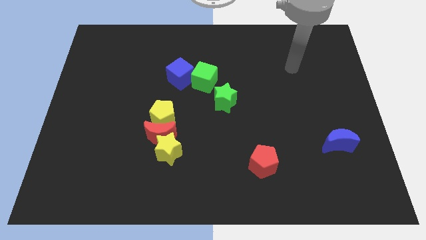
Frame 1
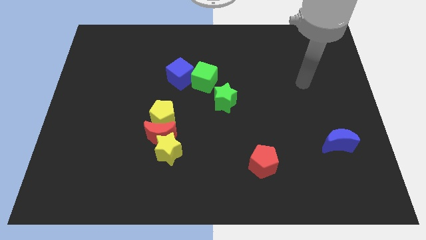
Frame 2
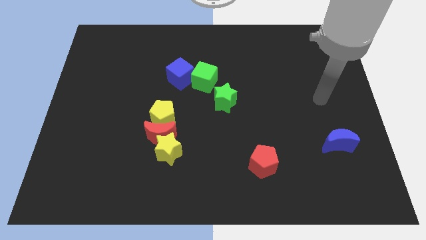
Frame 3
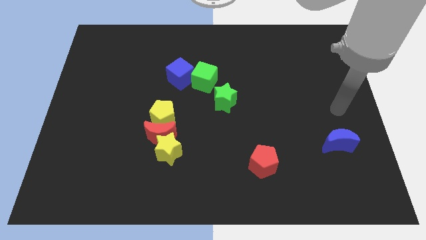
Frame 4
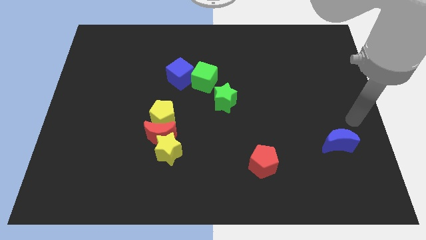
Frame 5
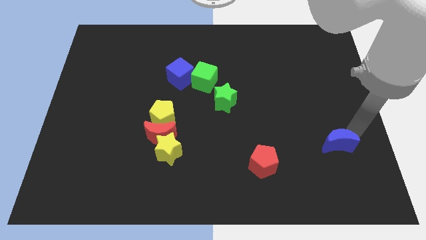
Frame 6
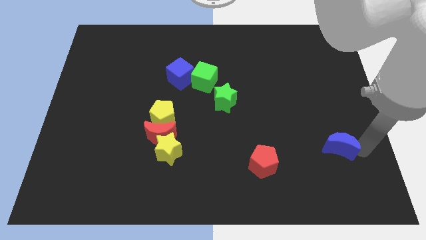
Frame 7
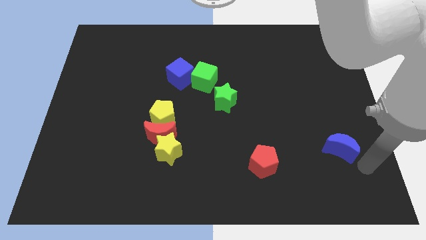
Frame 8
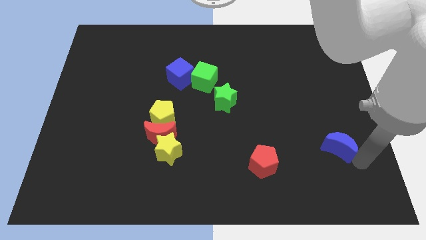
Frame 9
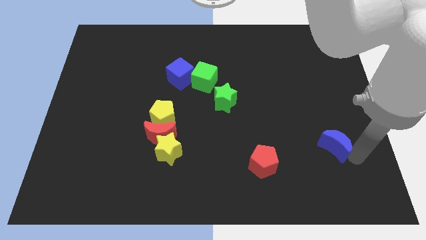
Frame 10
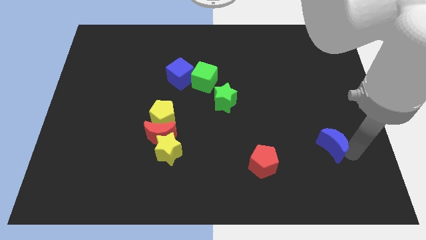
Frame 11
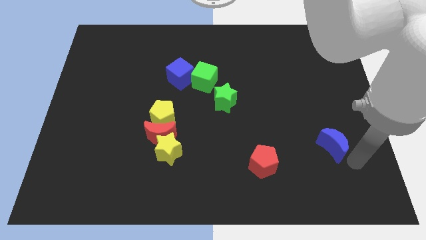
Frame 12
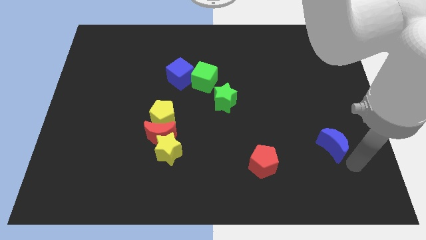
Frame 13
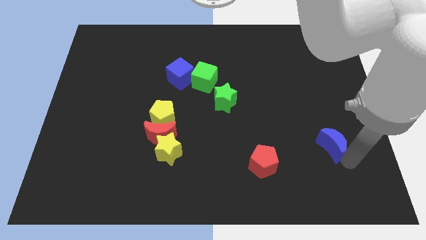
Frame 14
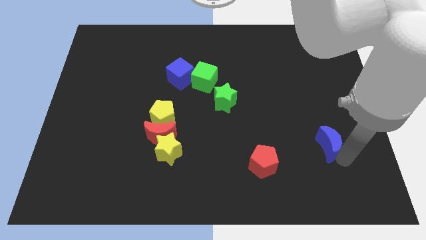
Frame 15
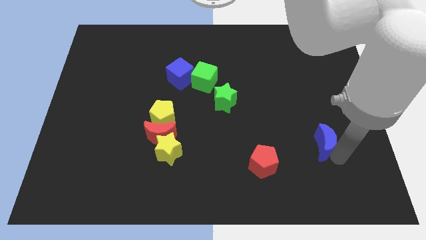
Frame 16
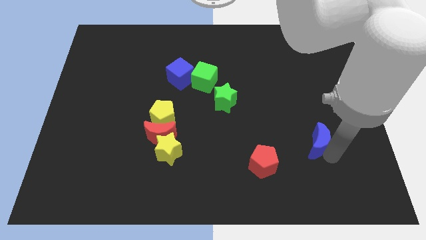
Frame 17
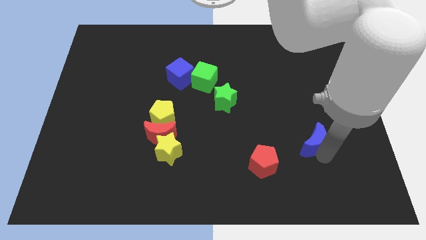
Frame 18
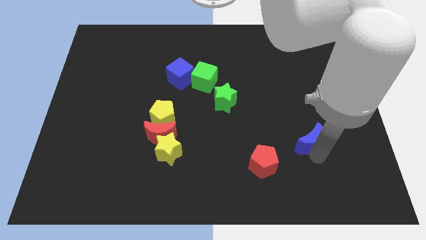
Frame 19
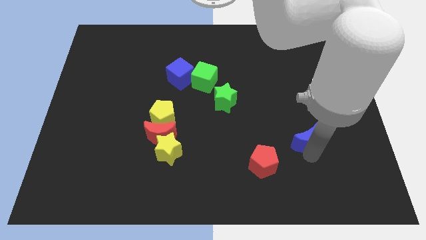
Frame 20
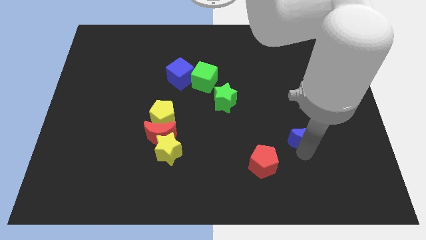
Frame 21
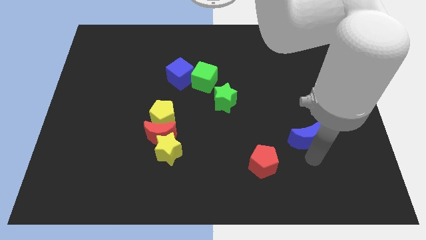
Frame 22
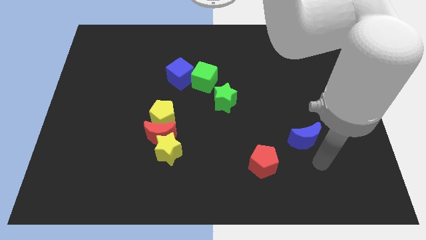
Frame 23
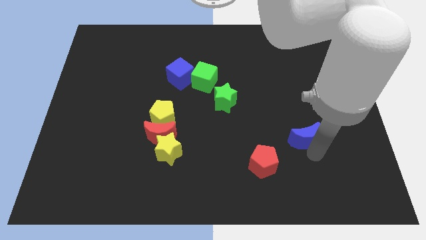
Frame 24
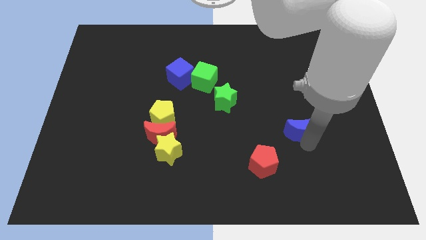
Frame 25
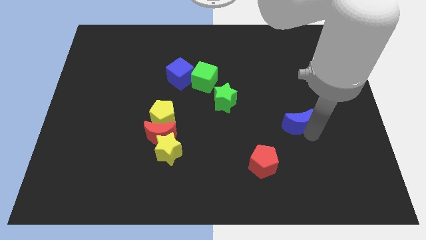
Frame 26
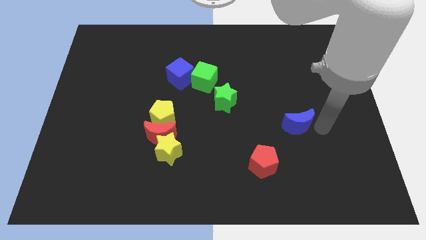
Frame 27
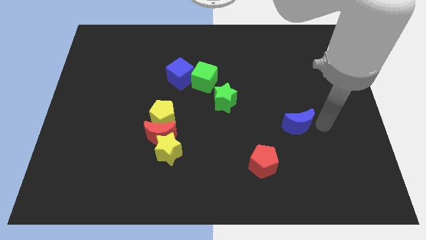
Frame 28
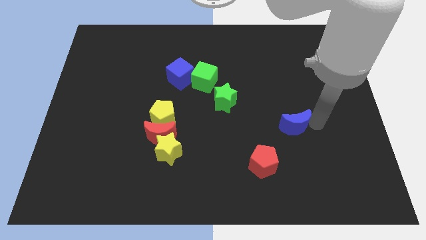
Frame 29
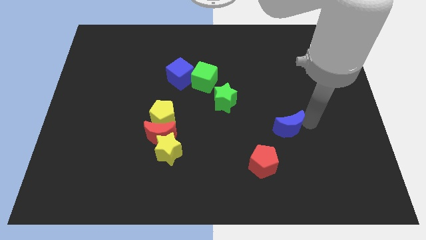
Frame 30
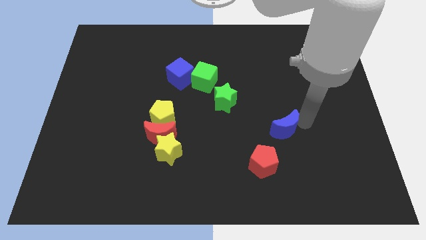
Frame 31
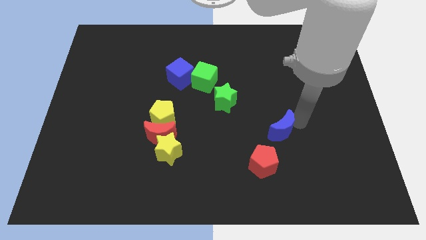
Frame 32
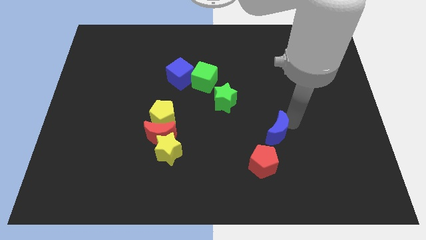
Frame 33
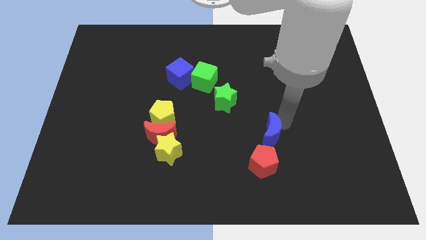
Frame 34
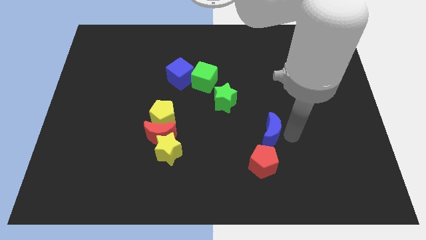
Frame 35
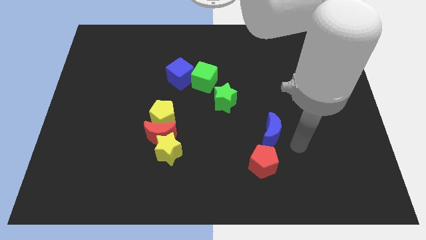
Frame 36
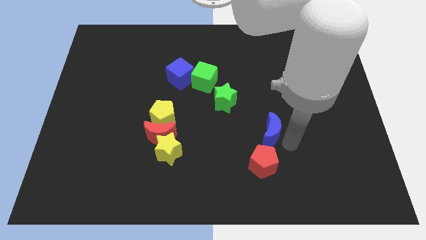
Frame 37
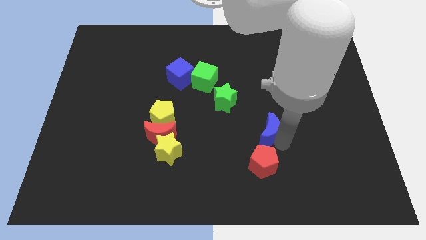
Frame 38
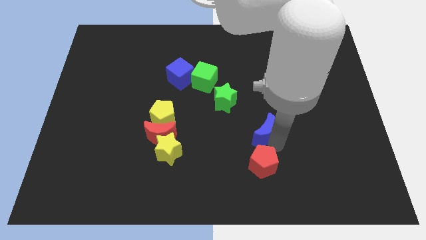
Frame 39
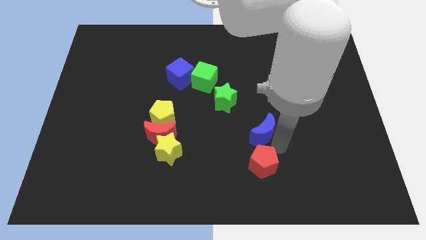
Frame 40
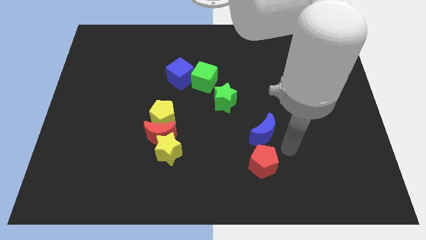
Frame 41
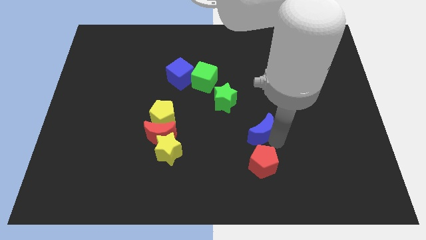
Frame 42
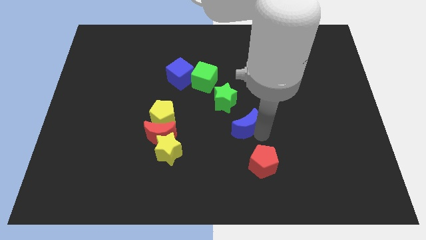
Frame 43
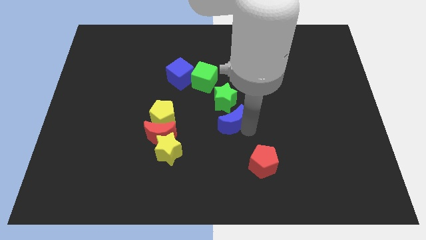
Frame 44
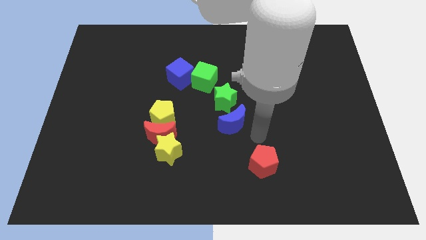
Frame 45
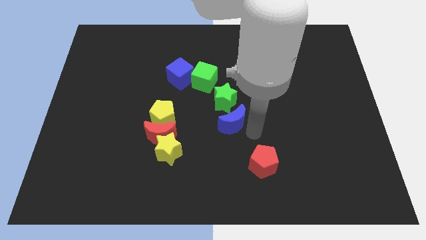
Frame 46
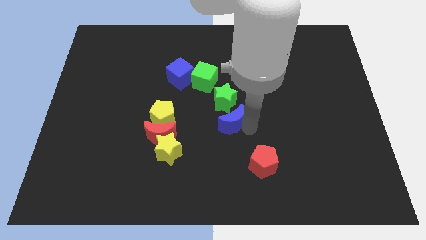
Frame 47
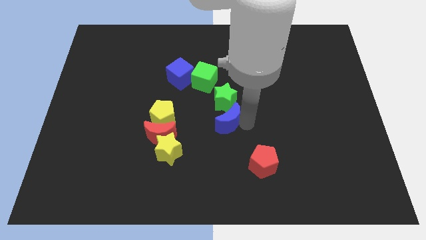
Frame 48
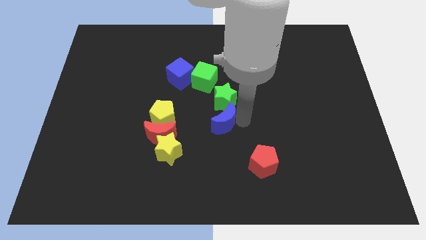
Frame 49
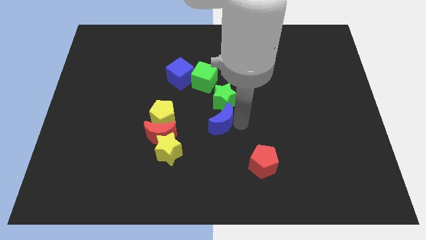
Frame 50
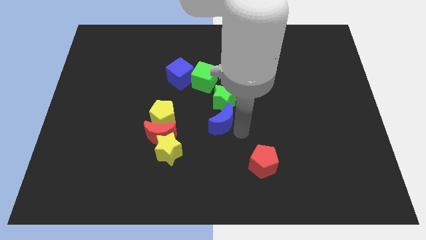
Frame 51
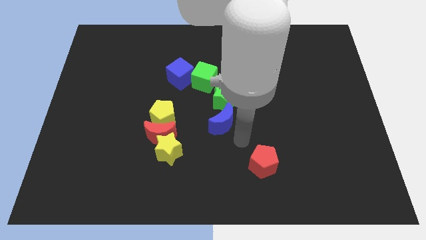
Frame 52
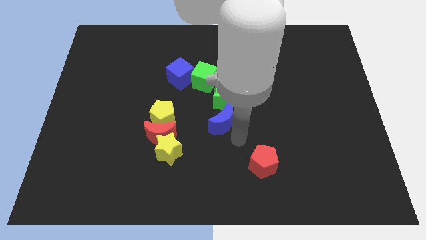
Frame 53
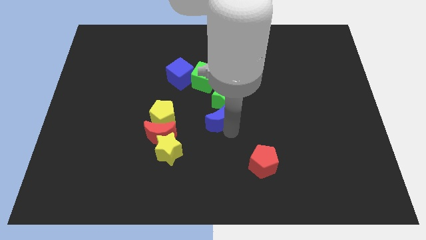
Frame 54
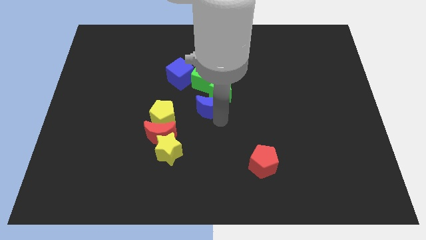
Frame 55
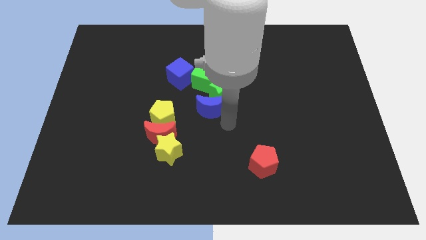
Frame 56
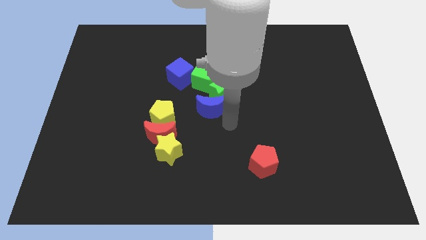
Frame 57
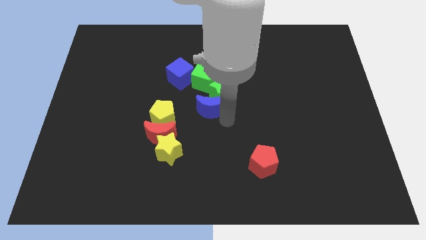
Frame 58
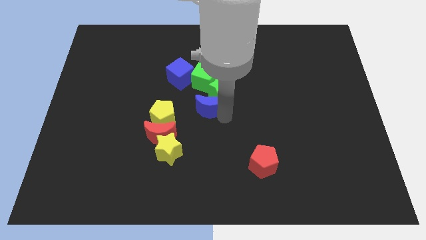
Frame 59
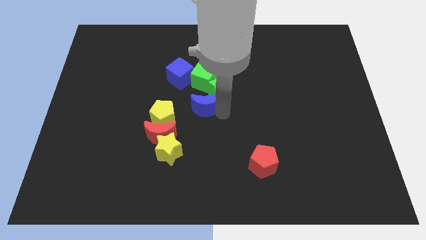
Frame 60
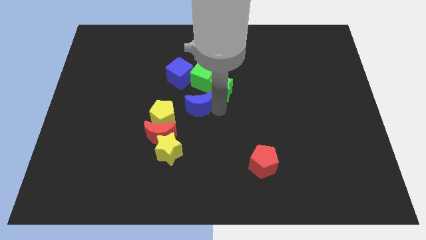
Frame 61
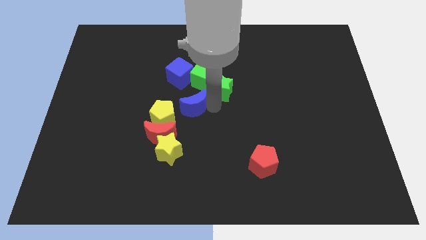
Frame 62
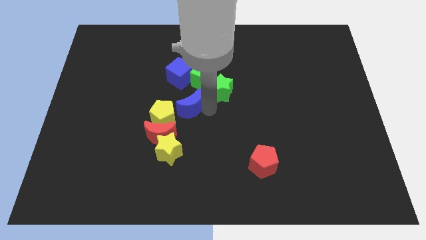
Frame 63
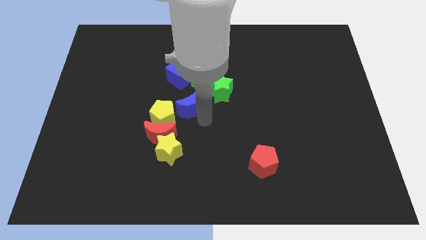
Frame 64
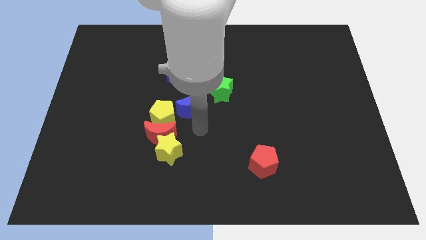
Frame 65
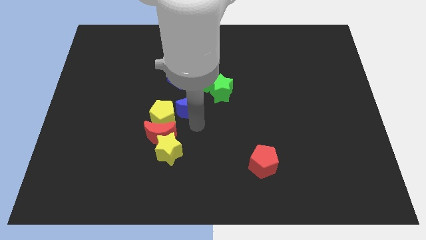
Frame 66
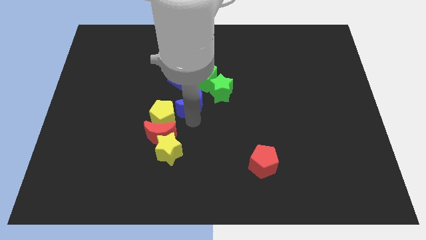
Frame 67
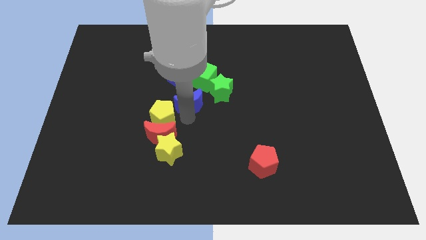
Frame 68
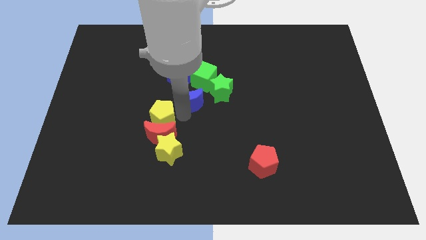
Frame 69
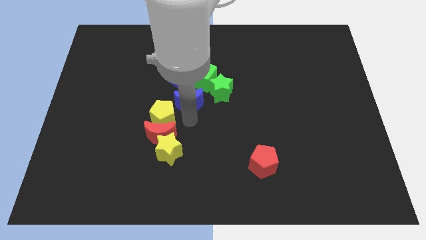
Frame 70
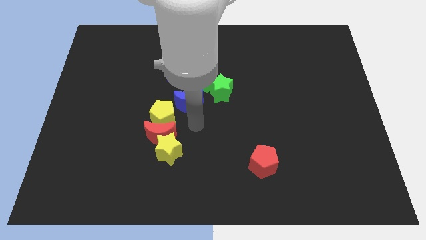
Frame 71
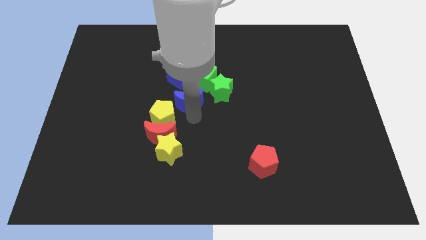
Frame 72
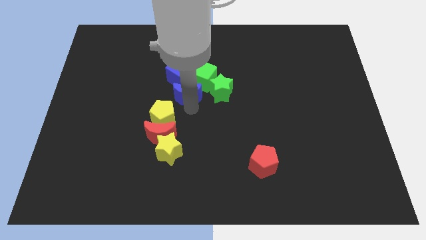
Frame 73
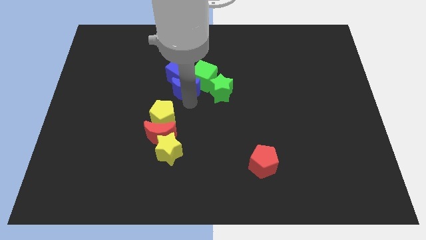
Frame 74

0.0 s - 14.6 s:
push the blue moon next to the blue cube
